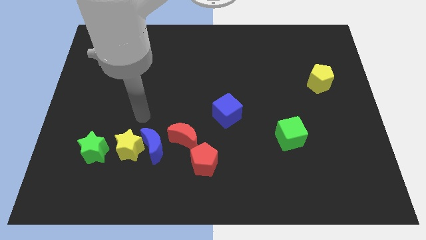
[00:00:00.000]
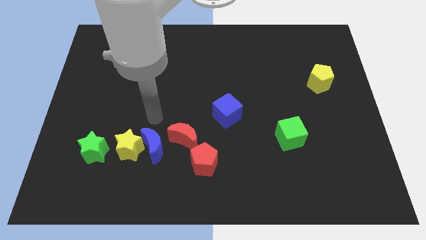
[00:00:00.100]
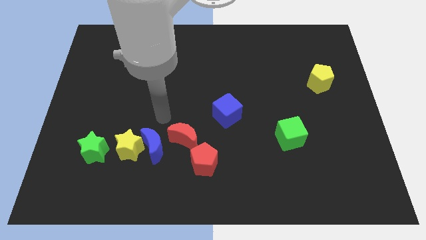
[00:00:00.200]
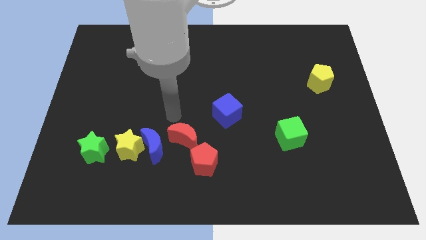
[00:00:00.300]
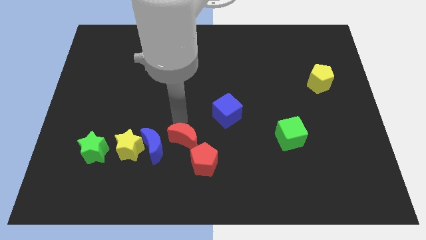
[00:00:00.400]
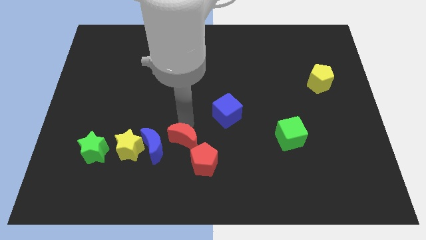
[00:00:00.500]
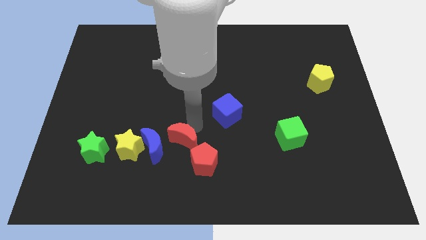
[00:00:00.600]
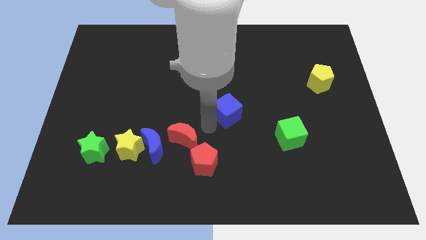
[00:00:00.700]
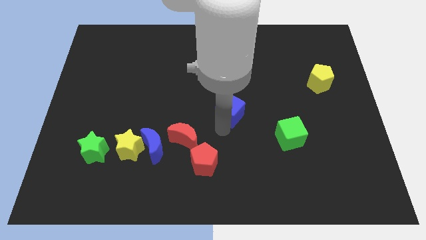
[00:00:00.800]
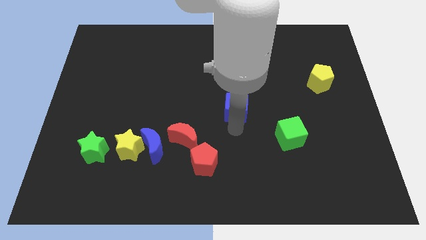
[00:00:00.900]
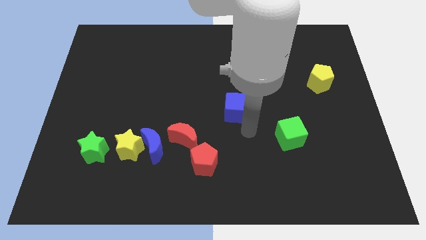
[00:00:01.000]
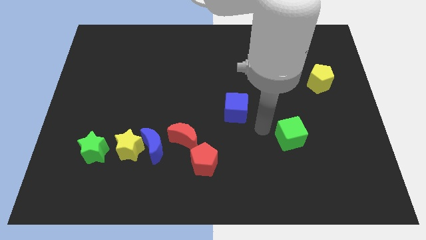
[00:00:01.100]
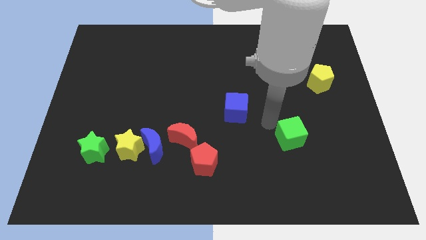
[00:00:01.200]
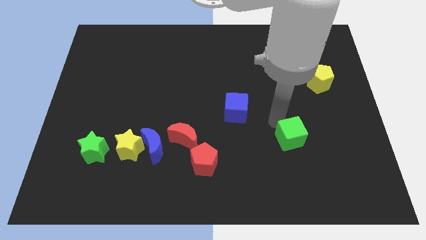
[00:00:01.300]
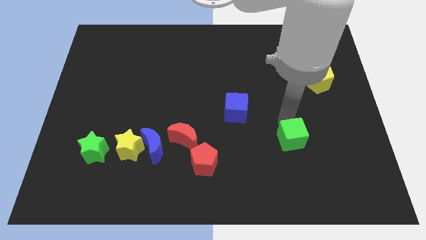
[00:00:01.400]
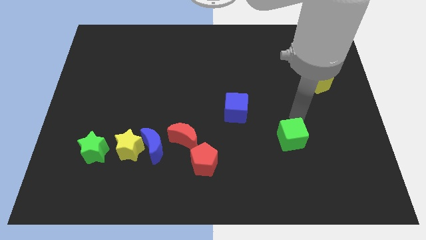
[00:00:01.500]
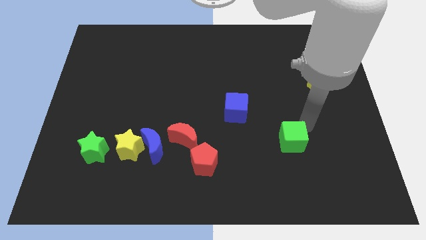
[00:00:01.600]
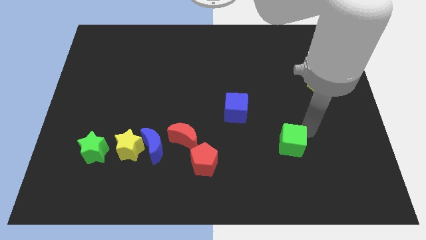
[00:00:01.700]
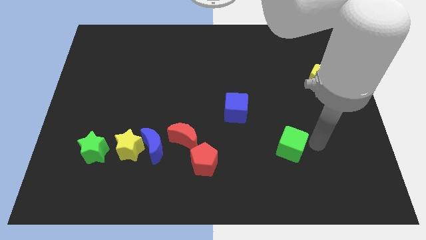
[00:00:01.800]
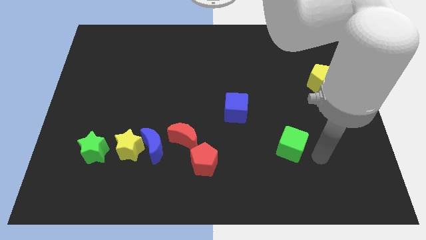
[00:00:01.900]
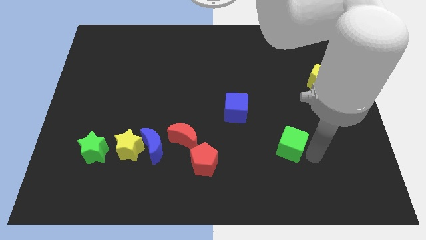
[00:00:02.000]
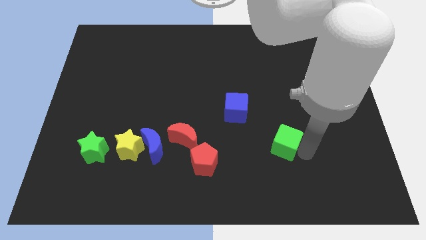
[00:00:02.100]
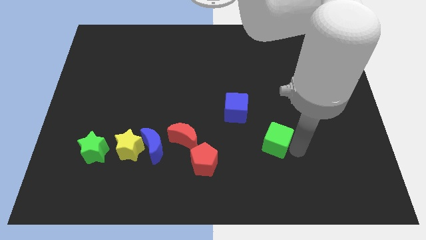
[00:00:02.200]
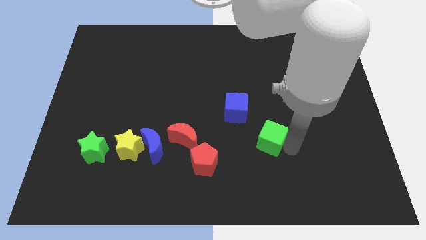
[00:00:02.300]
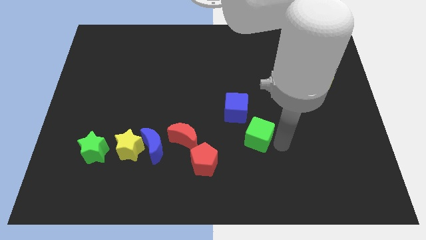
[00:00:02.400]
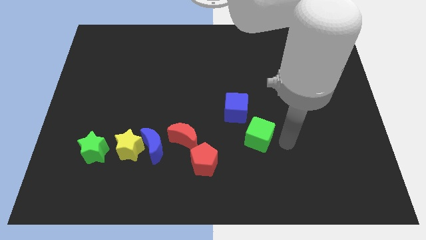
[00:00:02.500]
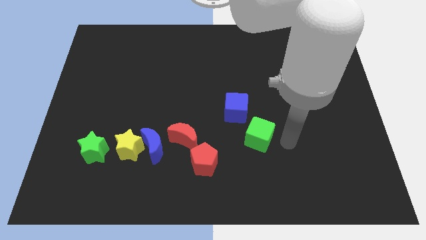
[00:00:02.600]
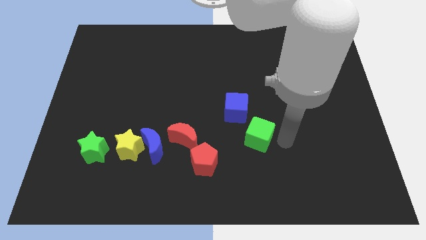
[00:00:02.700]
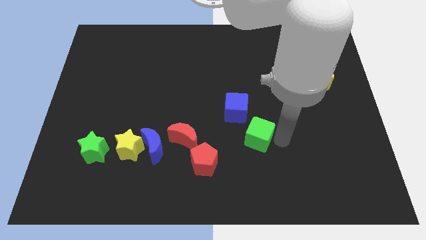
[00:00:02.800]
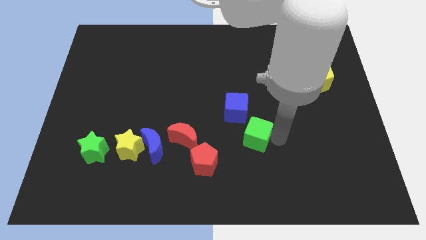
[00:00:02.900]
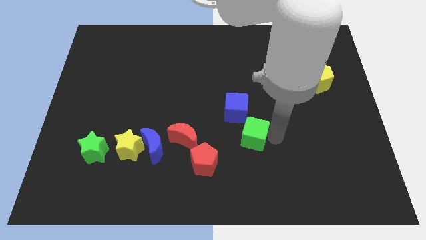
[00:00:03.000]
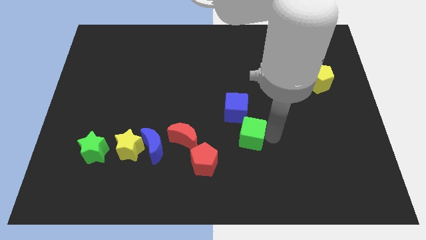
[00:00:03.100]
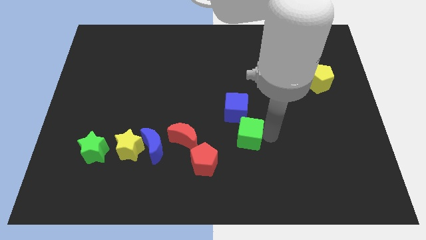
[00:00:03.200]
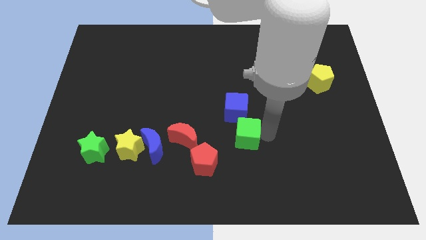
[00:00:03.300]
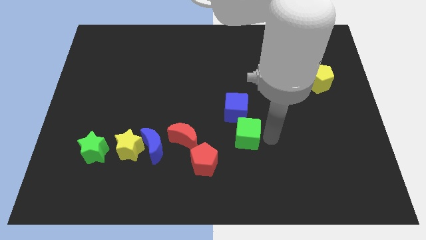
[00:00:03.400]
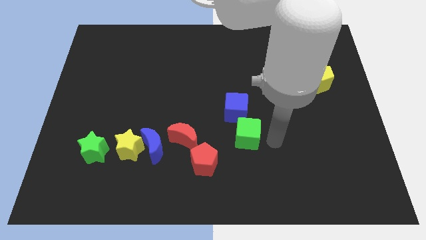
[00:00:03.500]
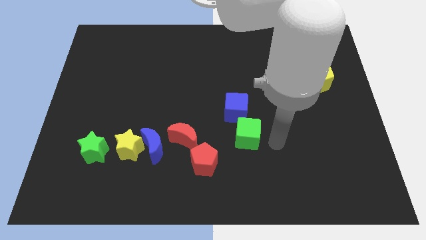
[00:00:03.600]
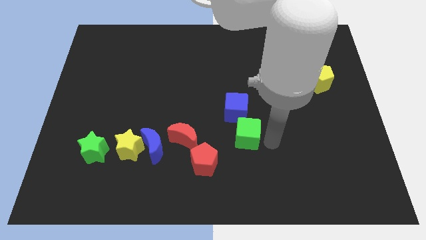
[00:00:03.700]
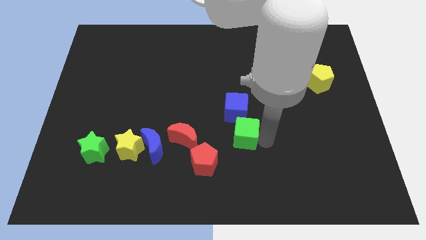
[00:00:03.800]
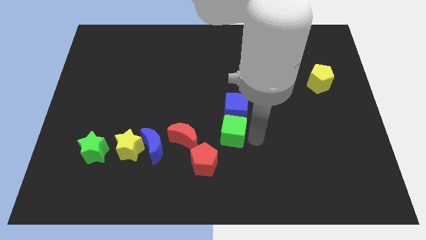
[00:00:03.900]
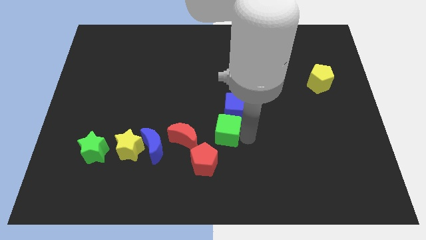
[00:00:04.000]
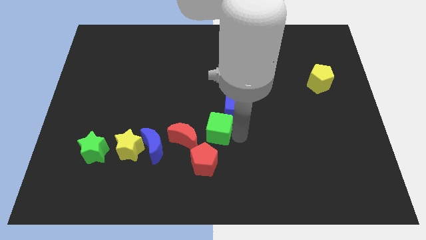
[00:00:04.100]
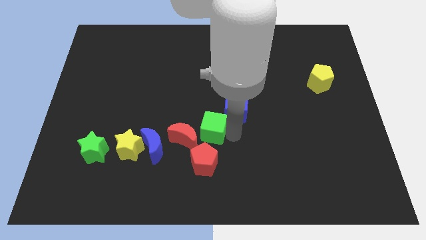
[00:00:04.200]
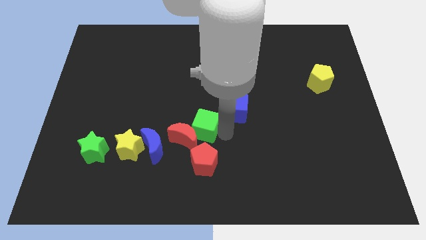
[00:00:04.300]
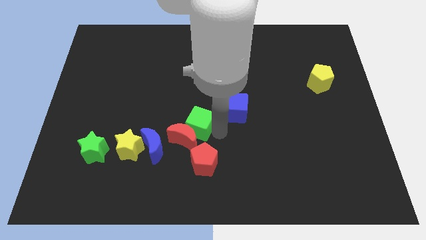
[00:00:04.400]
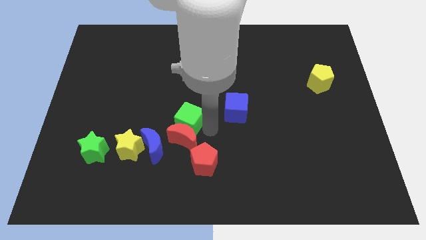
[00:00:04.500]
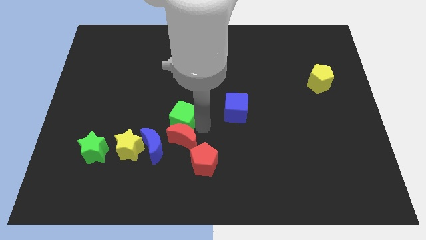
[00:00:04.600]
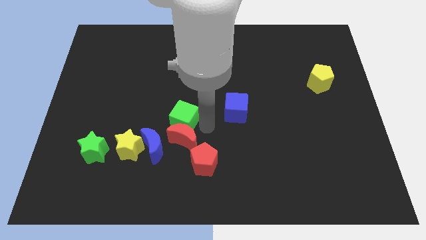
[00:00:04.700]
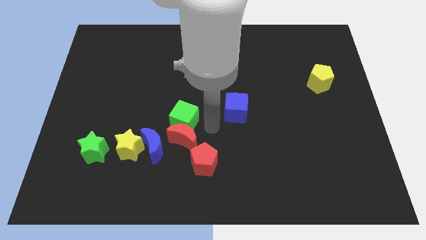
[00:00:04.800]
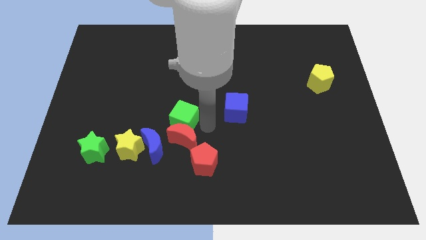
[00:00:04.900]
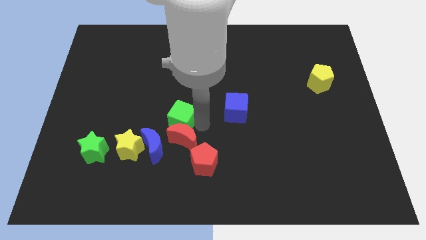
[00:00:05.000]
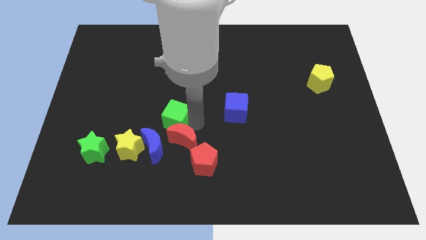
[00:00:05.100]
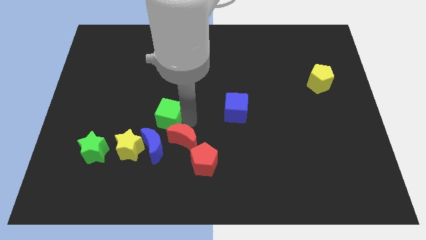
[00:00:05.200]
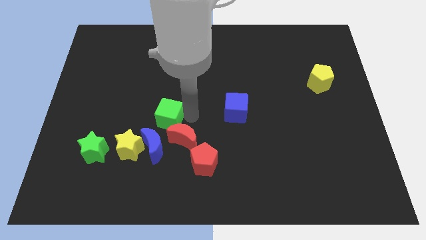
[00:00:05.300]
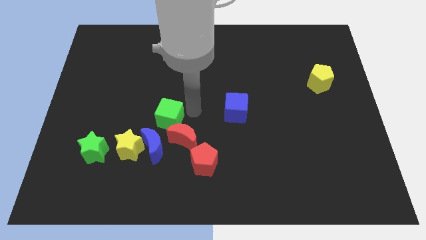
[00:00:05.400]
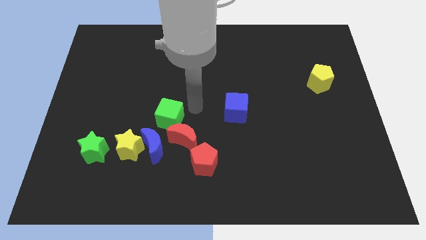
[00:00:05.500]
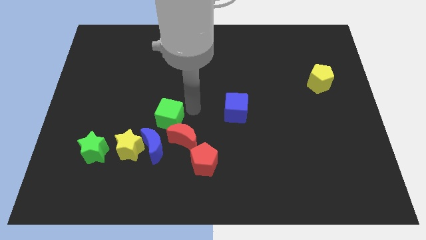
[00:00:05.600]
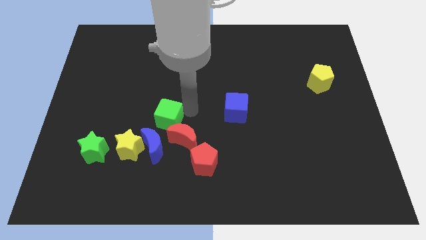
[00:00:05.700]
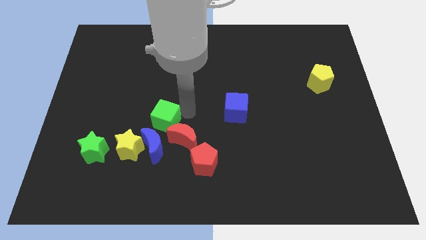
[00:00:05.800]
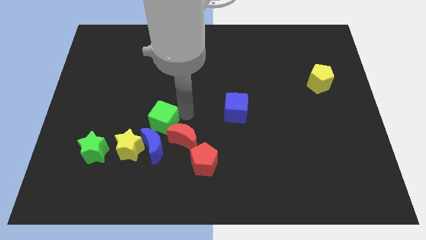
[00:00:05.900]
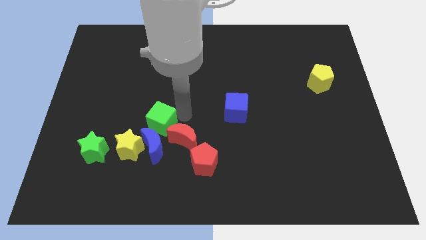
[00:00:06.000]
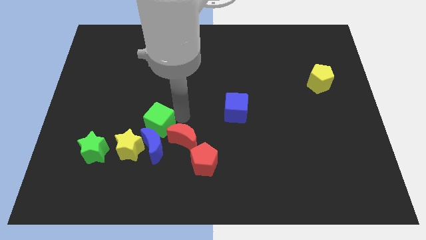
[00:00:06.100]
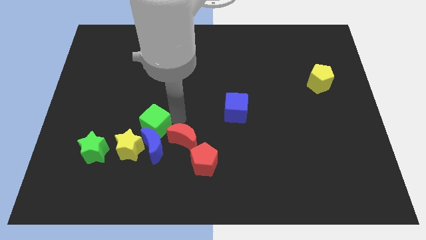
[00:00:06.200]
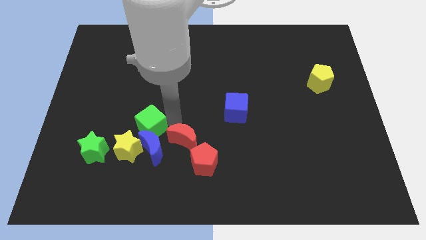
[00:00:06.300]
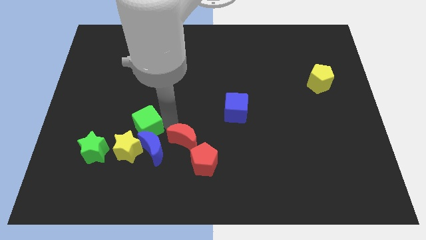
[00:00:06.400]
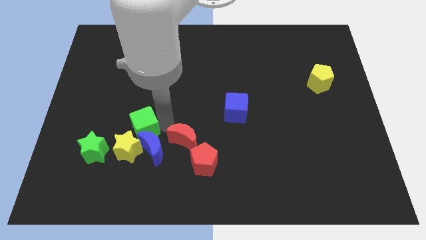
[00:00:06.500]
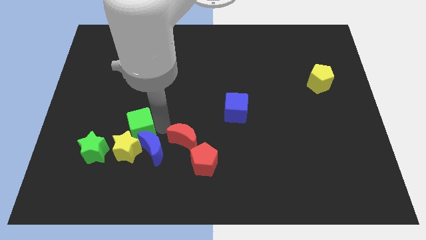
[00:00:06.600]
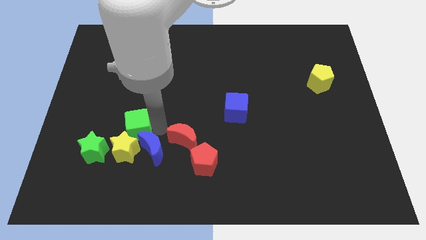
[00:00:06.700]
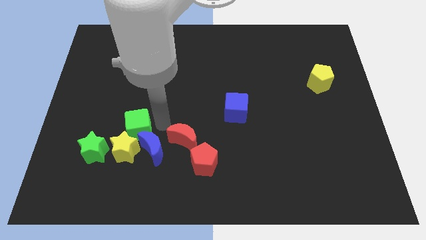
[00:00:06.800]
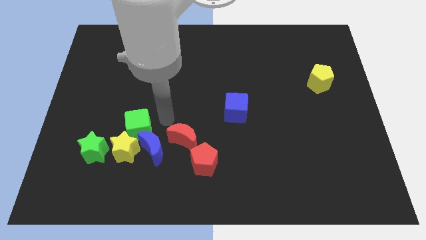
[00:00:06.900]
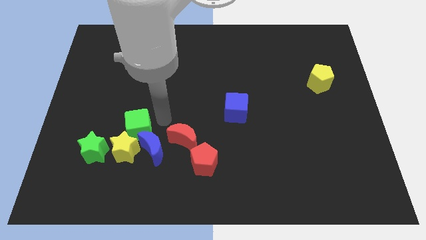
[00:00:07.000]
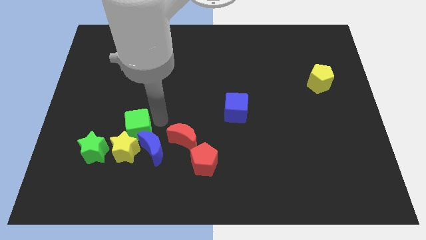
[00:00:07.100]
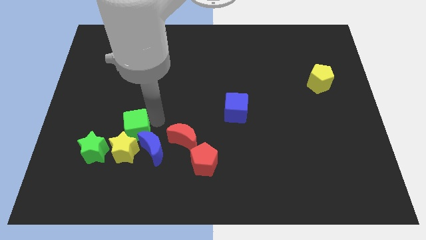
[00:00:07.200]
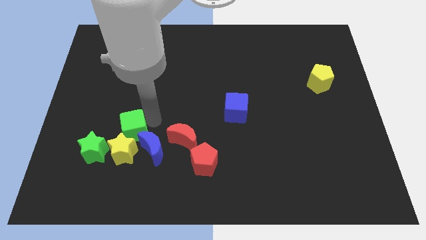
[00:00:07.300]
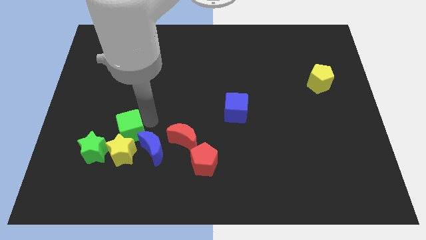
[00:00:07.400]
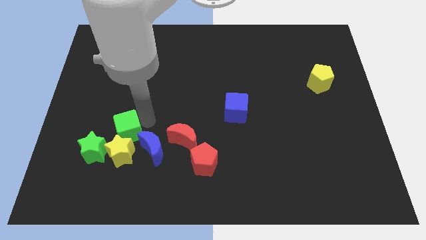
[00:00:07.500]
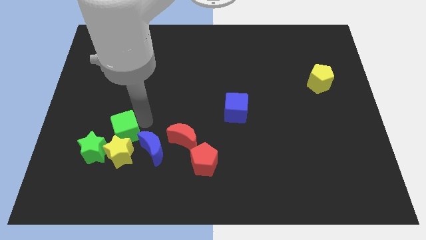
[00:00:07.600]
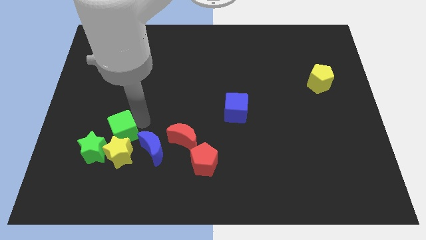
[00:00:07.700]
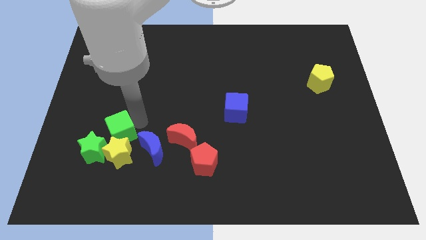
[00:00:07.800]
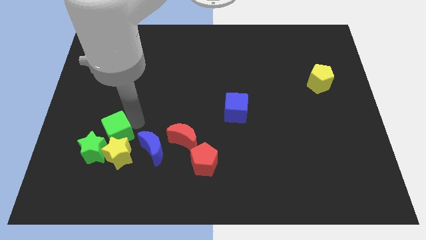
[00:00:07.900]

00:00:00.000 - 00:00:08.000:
move the green cube towards the green star
